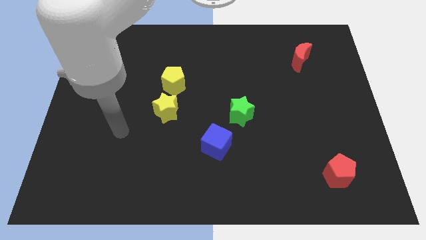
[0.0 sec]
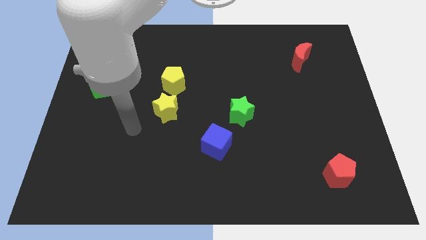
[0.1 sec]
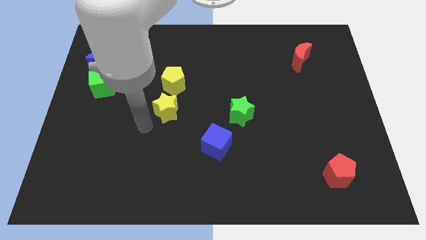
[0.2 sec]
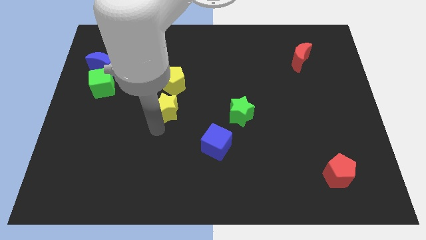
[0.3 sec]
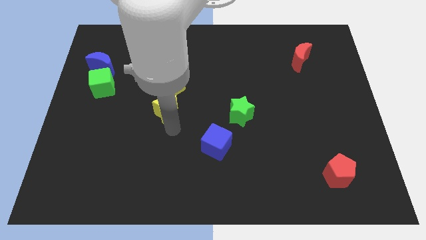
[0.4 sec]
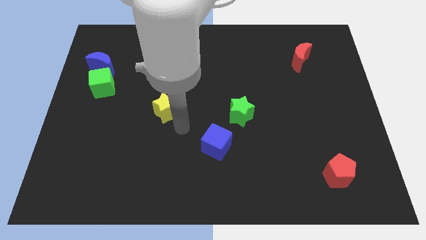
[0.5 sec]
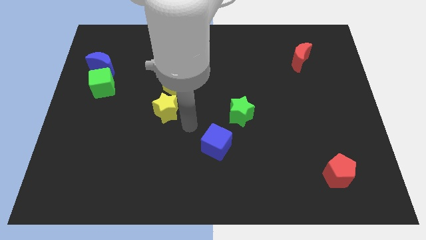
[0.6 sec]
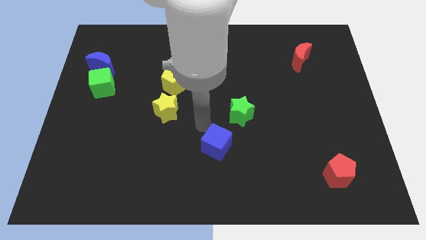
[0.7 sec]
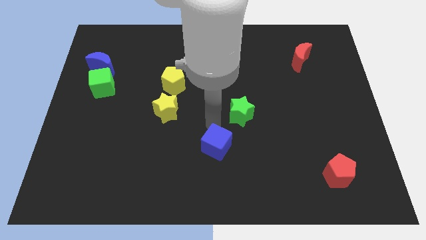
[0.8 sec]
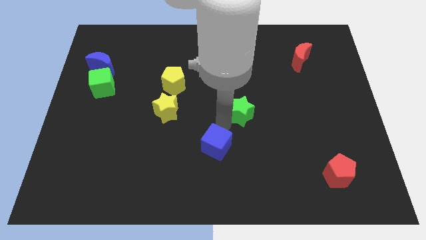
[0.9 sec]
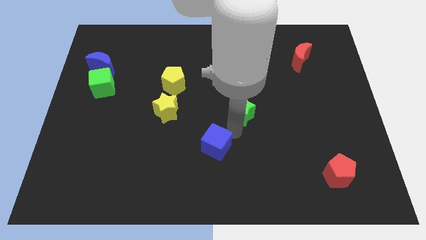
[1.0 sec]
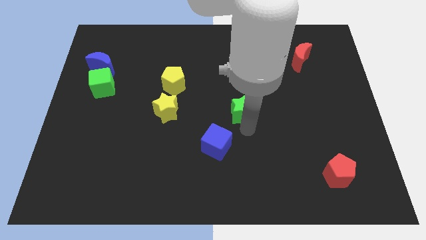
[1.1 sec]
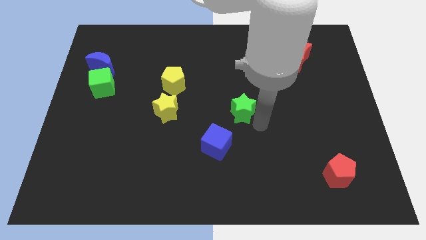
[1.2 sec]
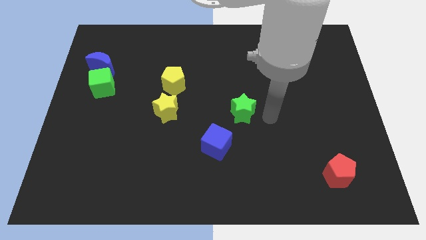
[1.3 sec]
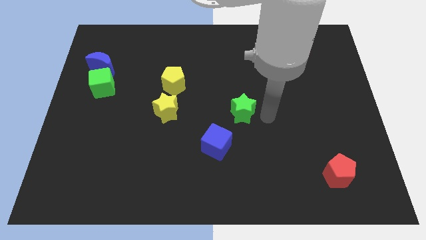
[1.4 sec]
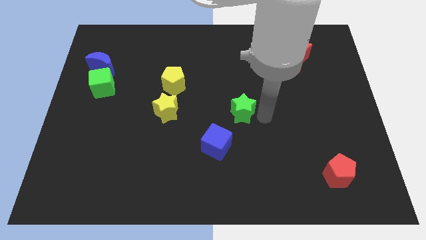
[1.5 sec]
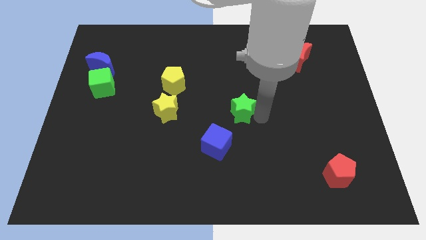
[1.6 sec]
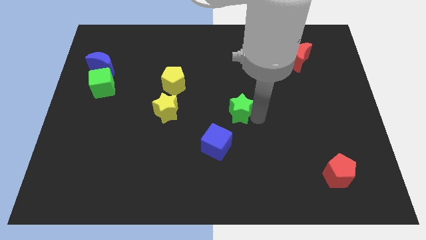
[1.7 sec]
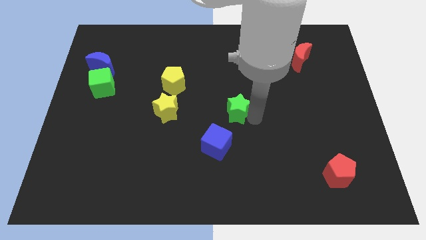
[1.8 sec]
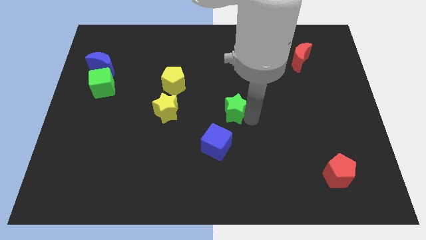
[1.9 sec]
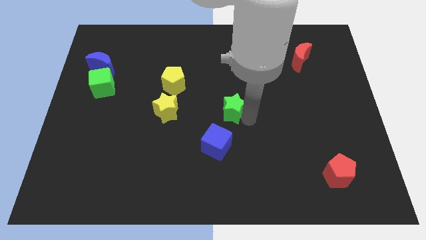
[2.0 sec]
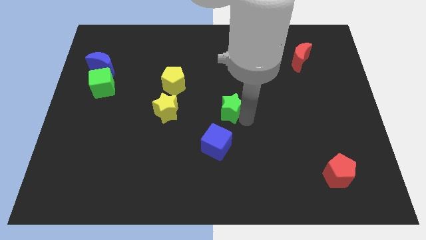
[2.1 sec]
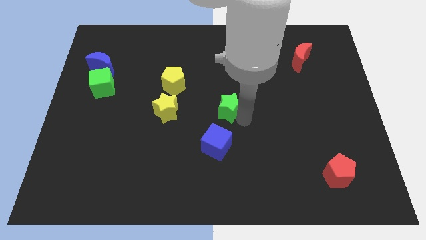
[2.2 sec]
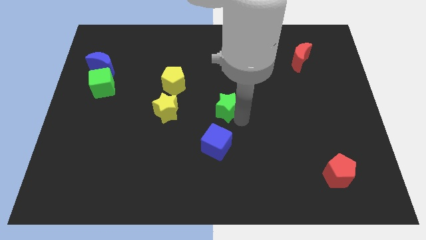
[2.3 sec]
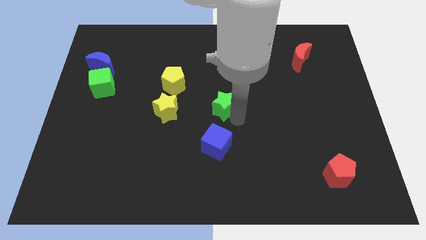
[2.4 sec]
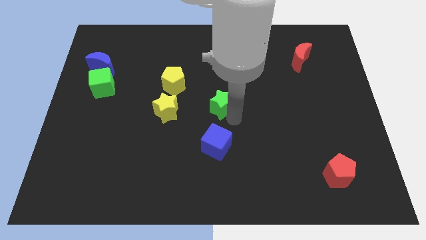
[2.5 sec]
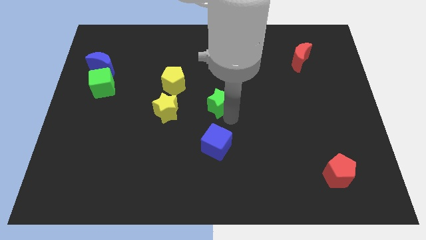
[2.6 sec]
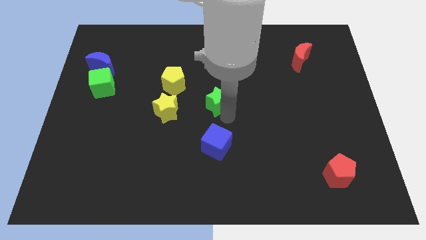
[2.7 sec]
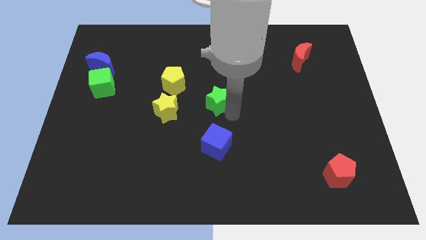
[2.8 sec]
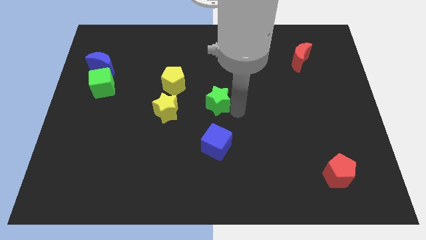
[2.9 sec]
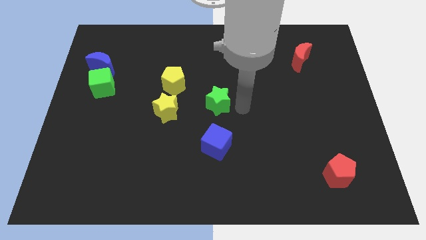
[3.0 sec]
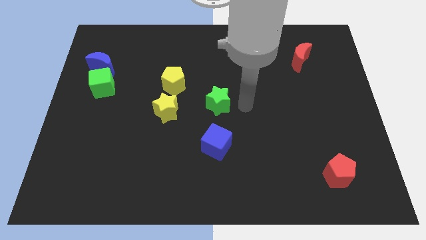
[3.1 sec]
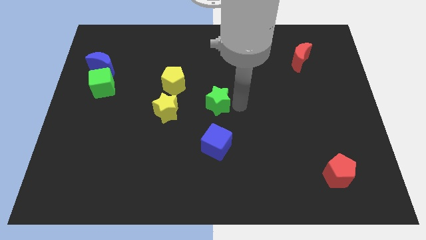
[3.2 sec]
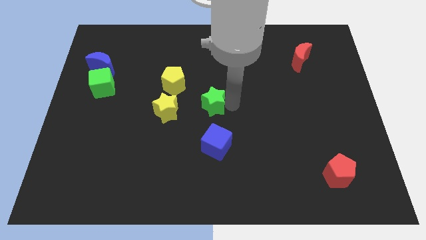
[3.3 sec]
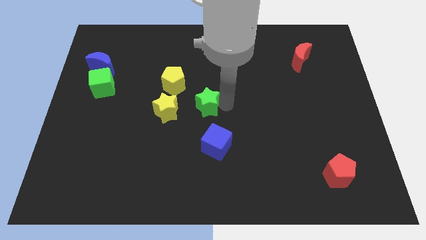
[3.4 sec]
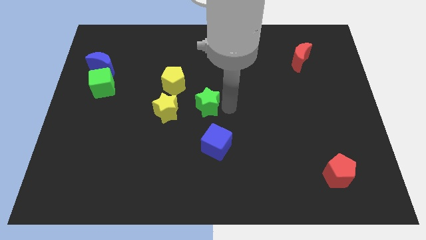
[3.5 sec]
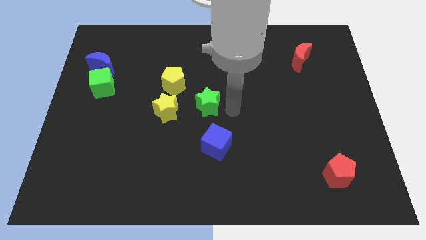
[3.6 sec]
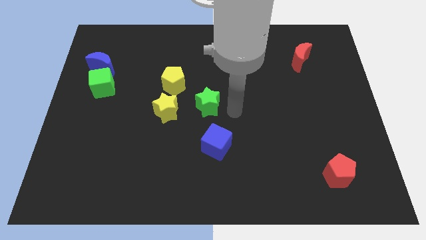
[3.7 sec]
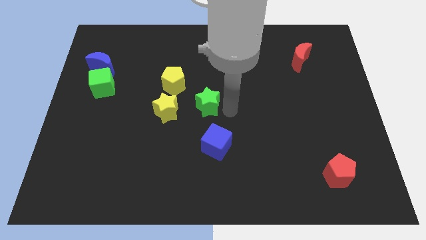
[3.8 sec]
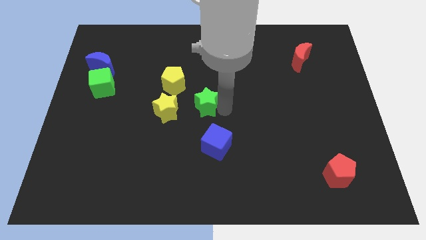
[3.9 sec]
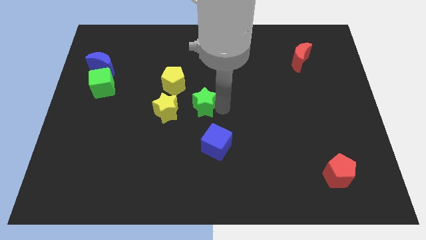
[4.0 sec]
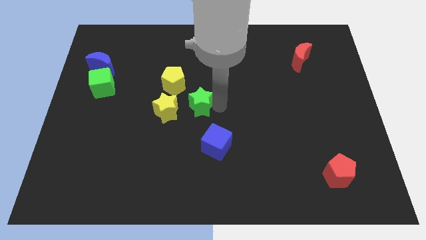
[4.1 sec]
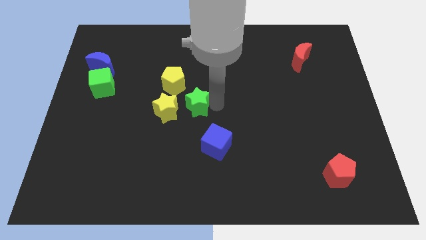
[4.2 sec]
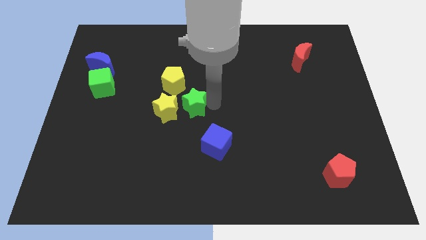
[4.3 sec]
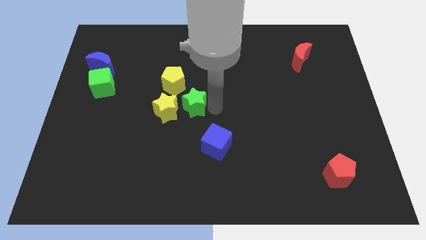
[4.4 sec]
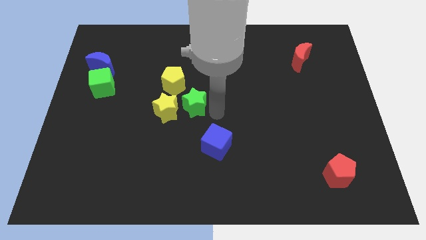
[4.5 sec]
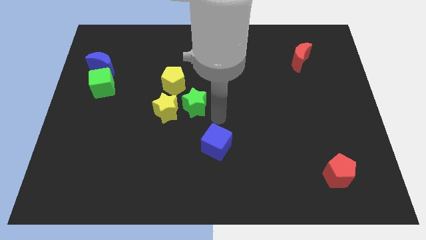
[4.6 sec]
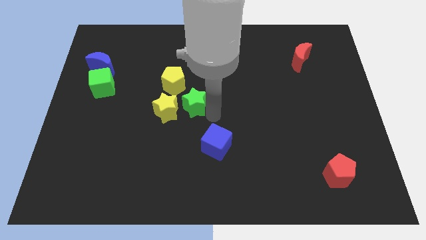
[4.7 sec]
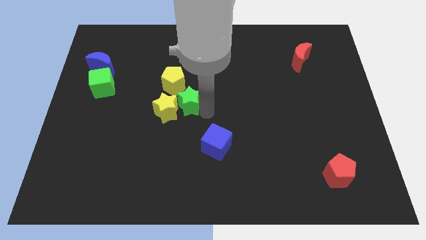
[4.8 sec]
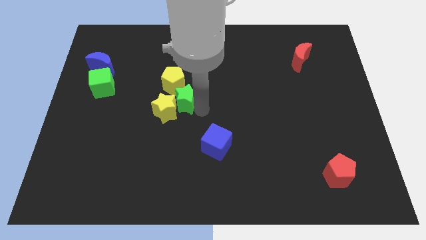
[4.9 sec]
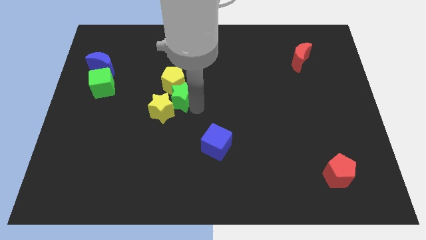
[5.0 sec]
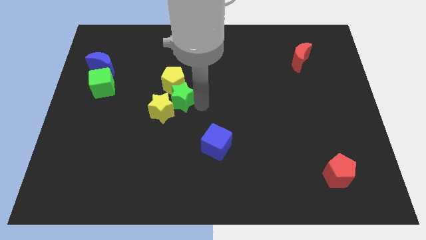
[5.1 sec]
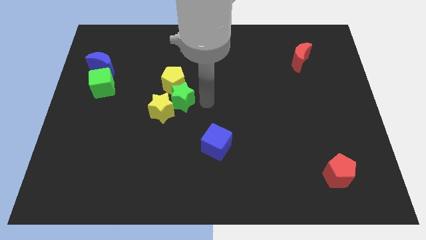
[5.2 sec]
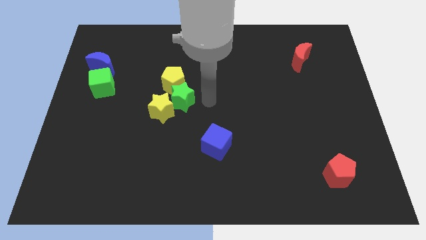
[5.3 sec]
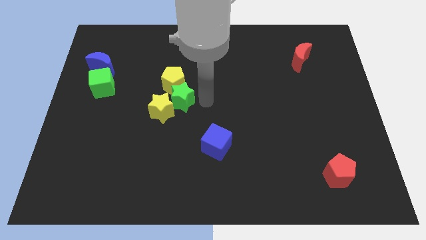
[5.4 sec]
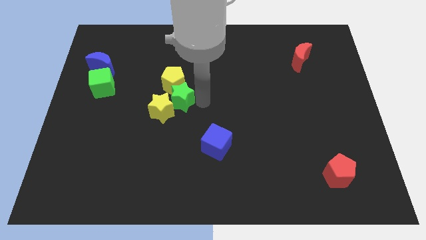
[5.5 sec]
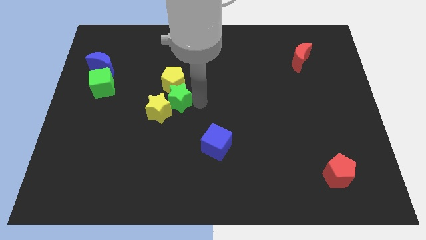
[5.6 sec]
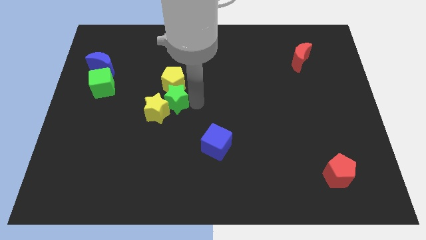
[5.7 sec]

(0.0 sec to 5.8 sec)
move the green star to the bottom left side of the yellow pentagon

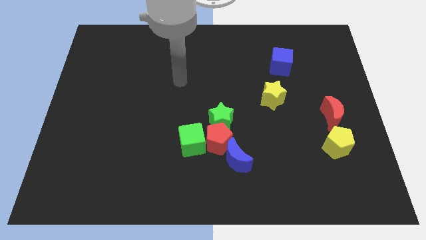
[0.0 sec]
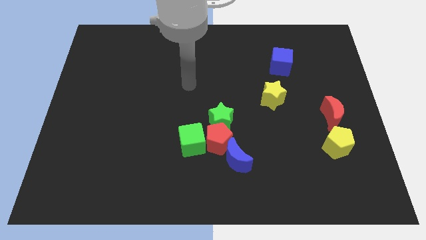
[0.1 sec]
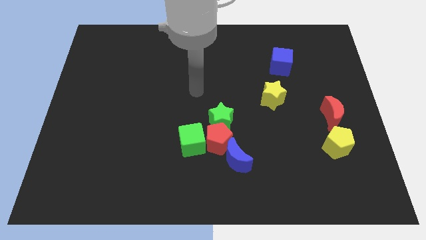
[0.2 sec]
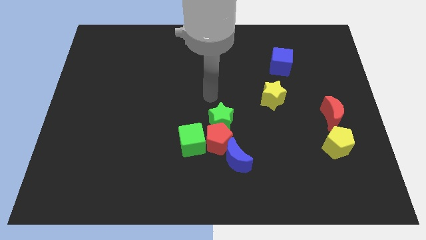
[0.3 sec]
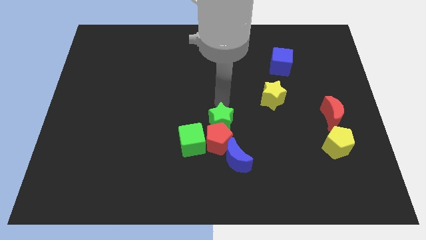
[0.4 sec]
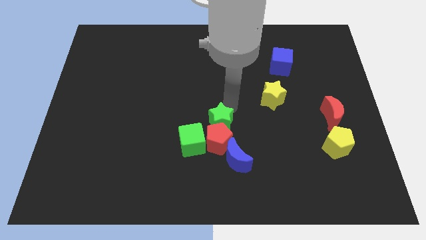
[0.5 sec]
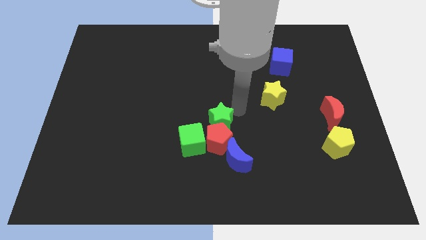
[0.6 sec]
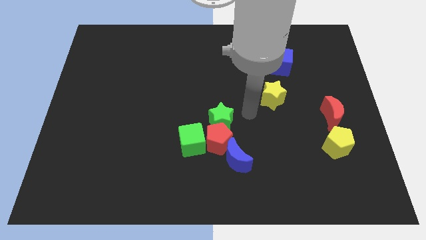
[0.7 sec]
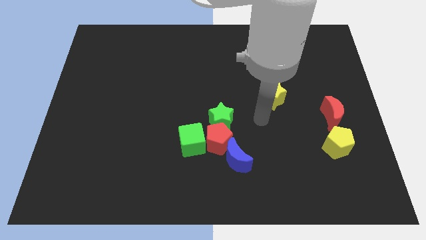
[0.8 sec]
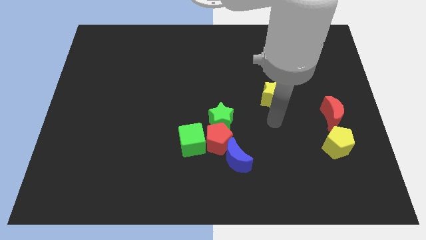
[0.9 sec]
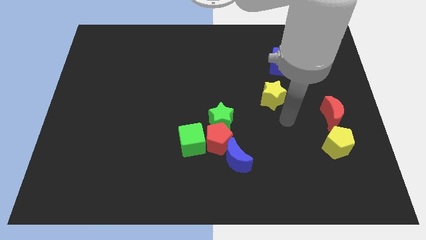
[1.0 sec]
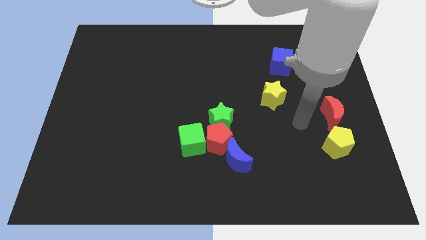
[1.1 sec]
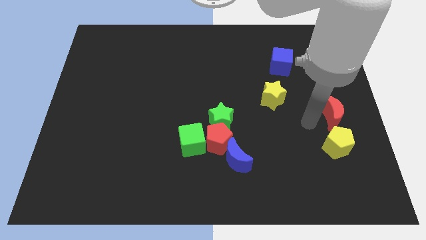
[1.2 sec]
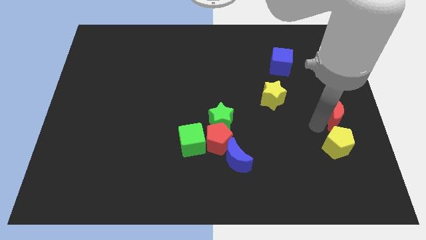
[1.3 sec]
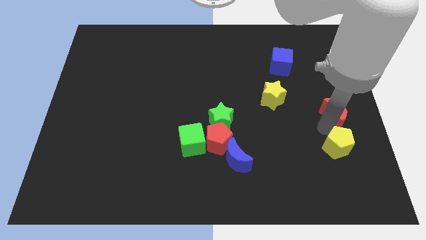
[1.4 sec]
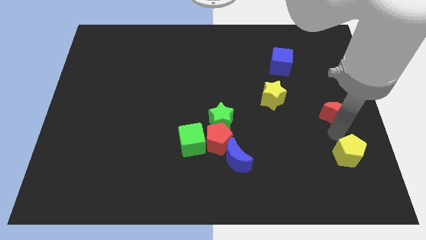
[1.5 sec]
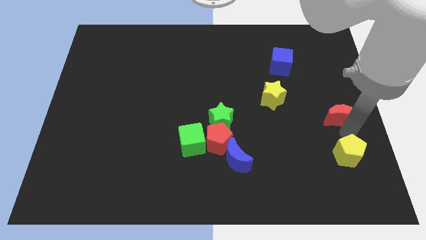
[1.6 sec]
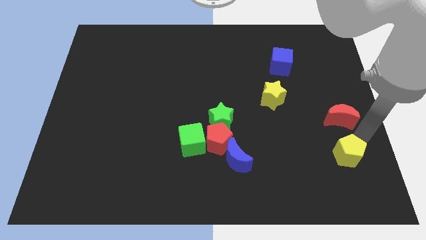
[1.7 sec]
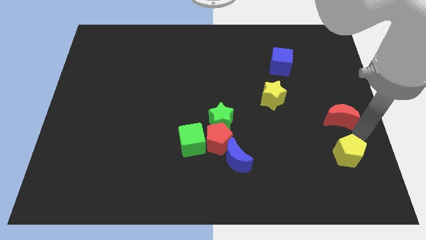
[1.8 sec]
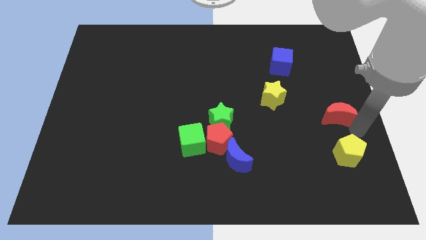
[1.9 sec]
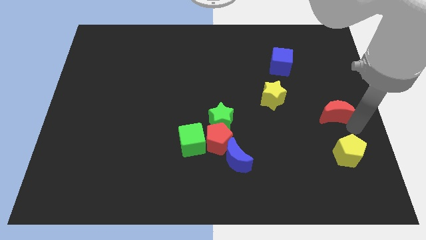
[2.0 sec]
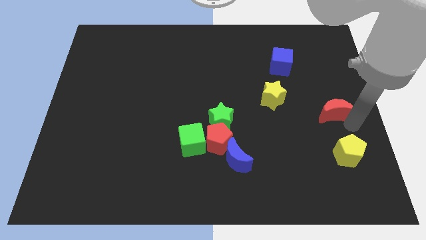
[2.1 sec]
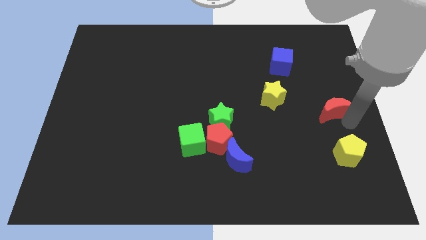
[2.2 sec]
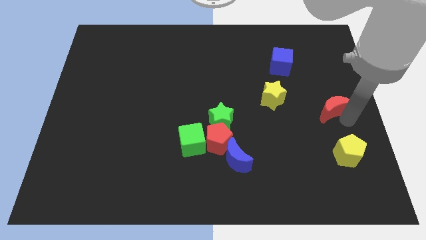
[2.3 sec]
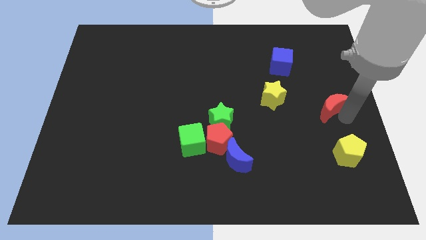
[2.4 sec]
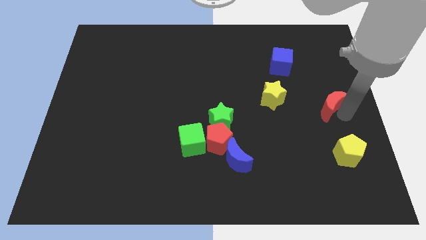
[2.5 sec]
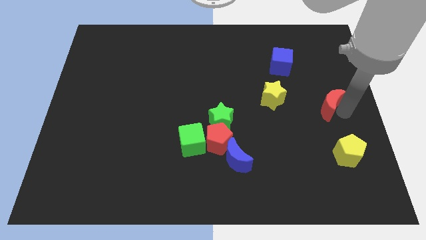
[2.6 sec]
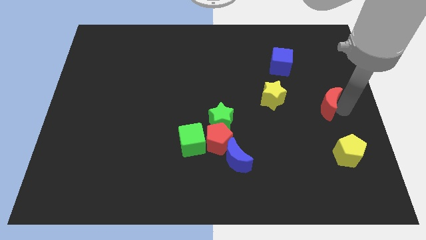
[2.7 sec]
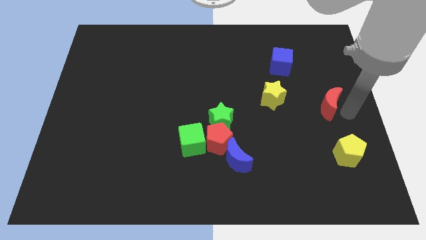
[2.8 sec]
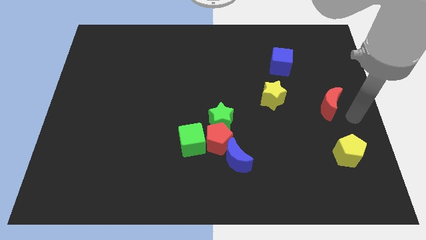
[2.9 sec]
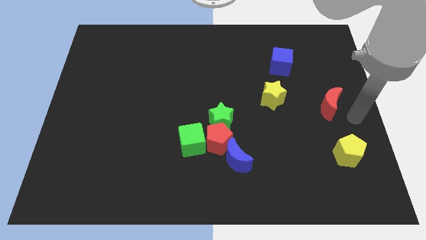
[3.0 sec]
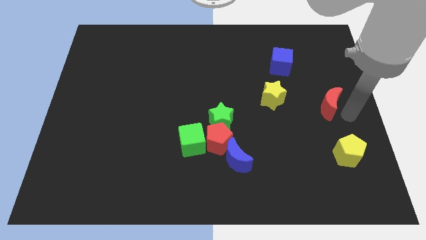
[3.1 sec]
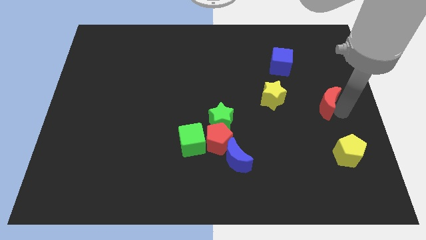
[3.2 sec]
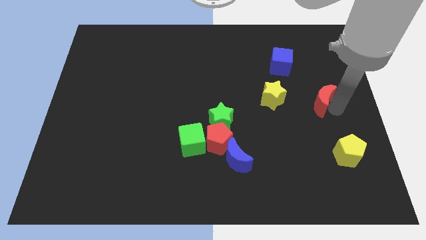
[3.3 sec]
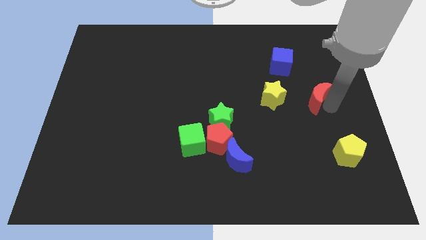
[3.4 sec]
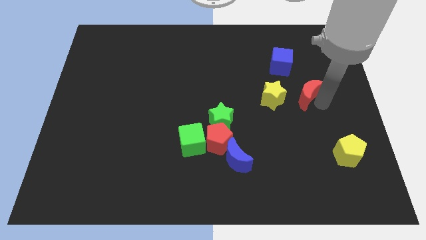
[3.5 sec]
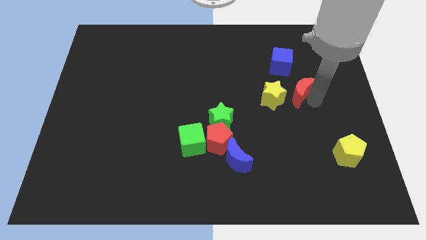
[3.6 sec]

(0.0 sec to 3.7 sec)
move the red moon to the top right side of the yellow star
